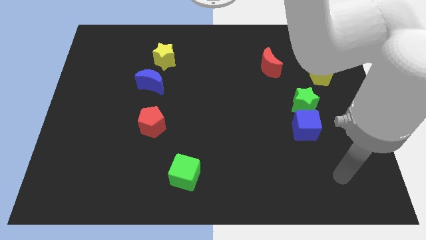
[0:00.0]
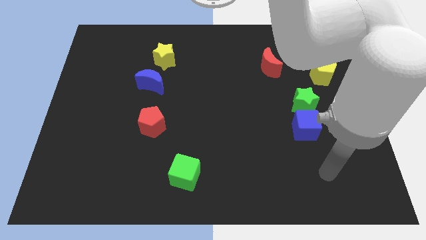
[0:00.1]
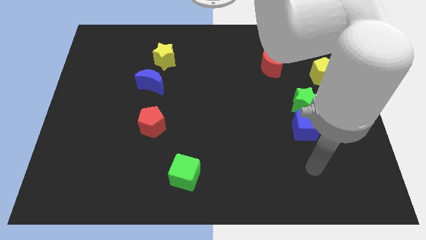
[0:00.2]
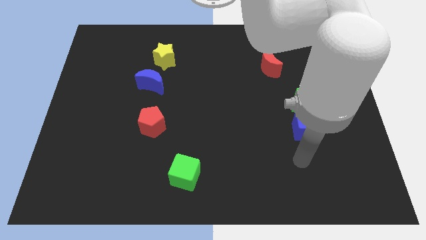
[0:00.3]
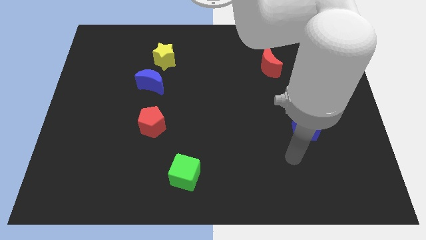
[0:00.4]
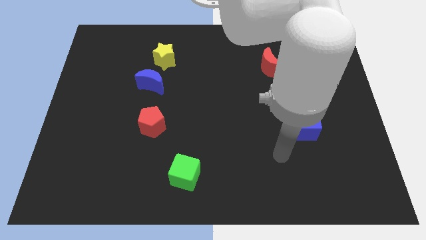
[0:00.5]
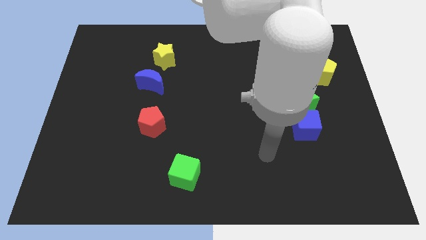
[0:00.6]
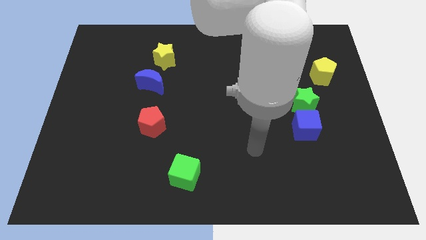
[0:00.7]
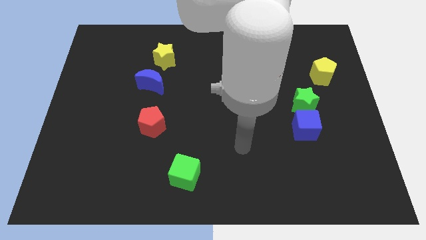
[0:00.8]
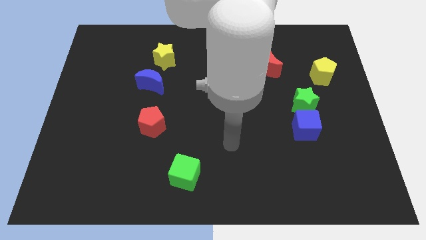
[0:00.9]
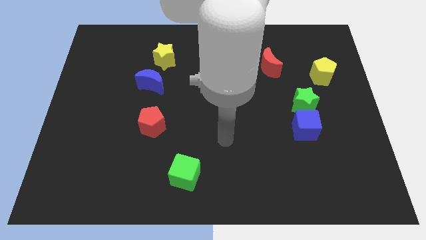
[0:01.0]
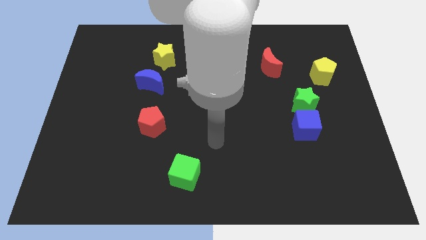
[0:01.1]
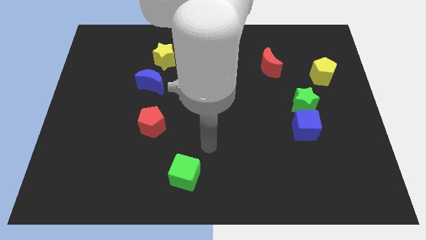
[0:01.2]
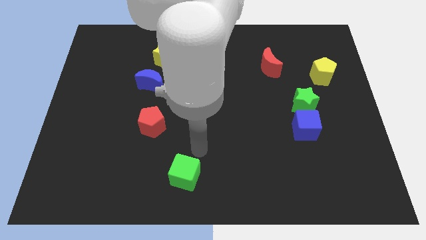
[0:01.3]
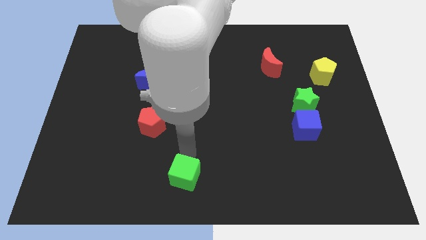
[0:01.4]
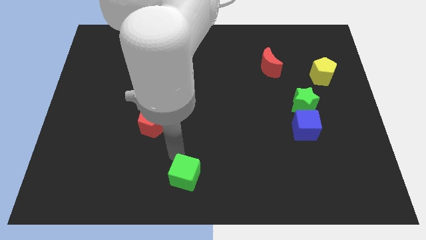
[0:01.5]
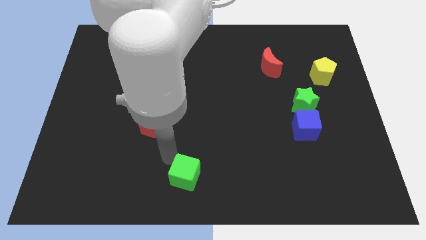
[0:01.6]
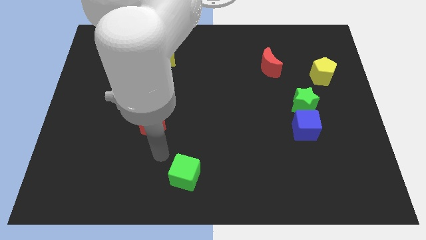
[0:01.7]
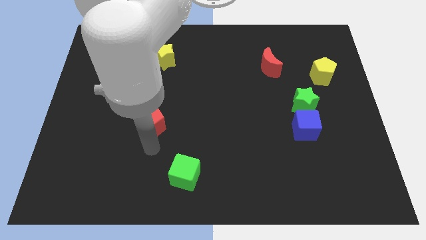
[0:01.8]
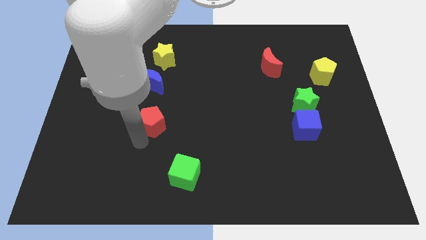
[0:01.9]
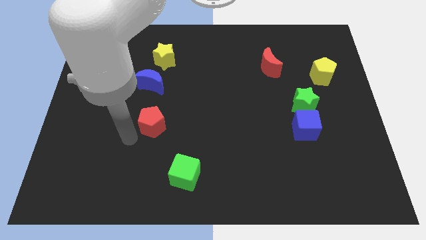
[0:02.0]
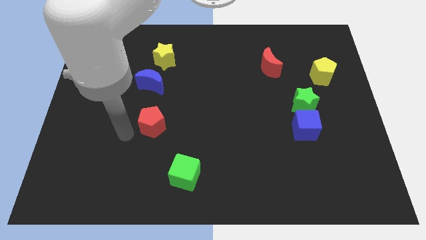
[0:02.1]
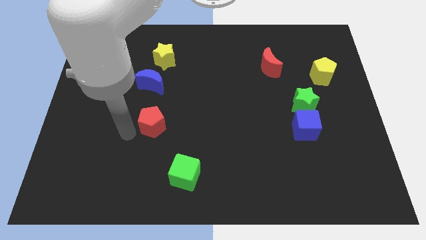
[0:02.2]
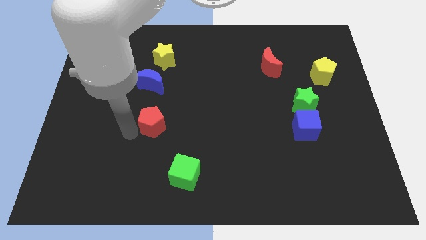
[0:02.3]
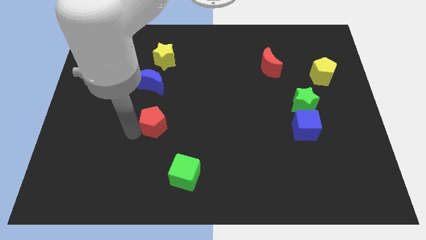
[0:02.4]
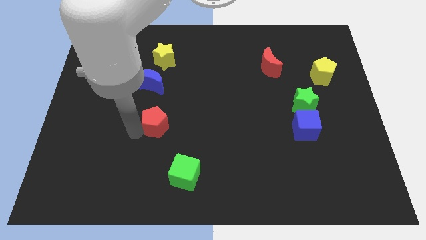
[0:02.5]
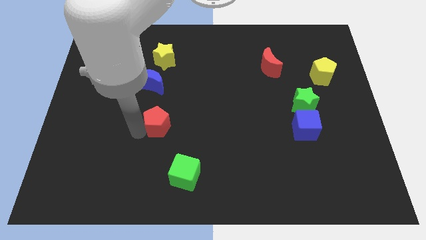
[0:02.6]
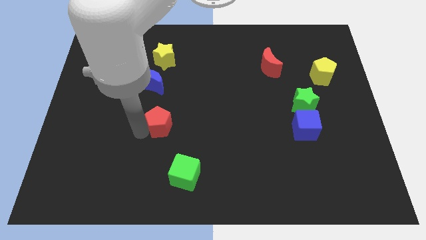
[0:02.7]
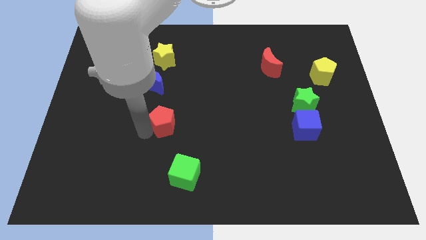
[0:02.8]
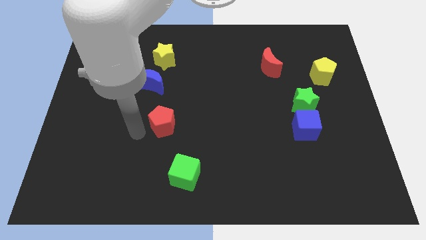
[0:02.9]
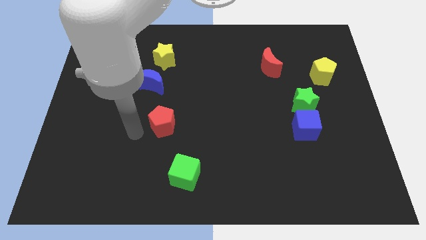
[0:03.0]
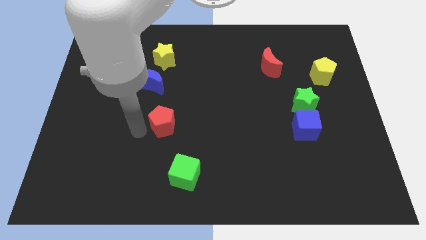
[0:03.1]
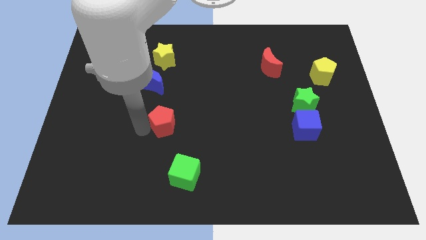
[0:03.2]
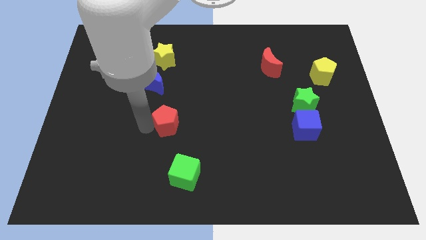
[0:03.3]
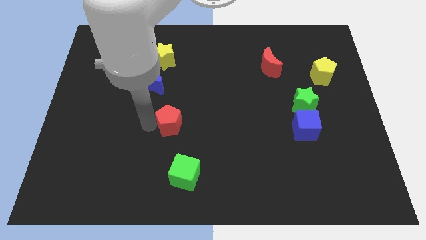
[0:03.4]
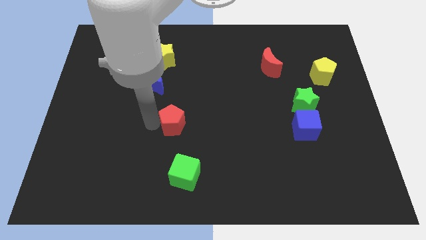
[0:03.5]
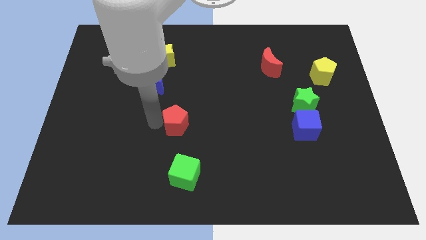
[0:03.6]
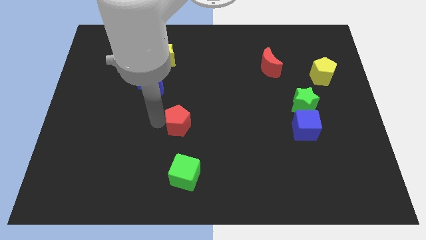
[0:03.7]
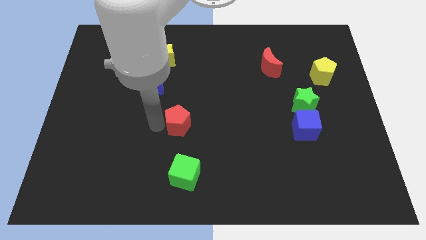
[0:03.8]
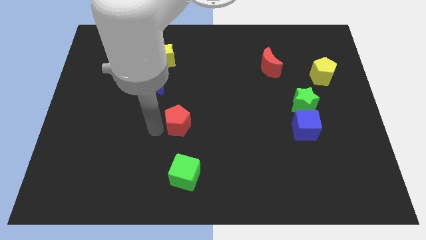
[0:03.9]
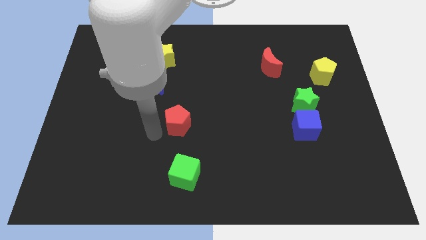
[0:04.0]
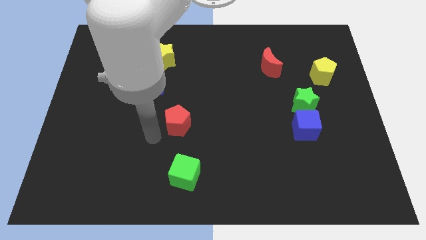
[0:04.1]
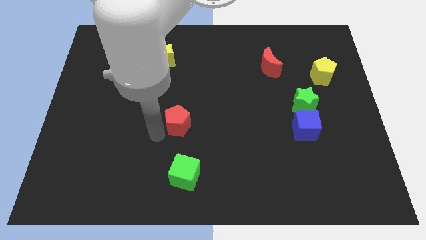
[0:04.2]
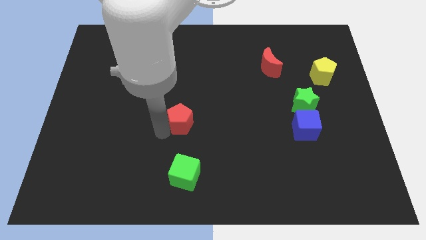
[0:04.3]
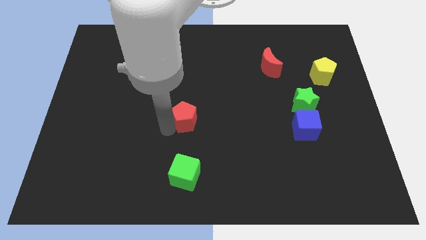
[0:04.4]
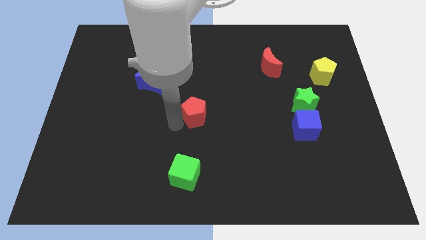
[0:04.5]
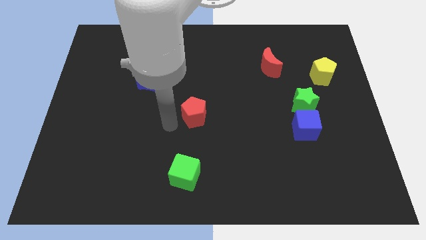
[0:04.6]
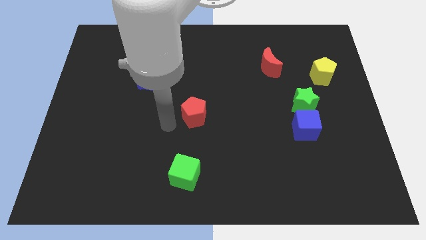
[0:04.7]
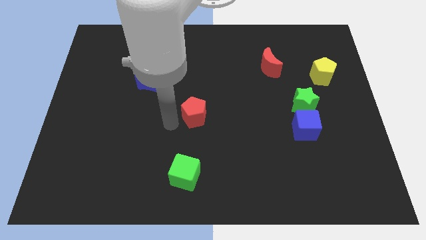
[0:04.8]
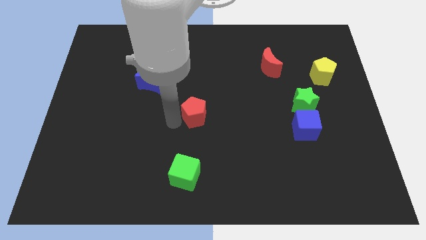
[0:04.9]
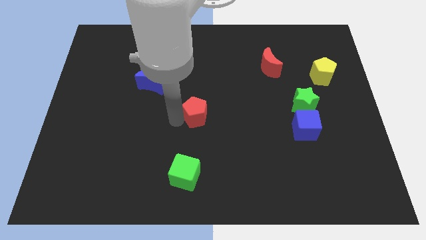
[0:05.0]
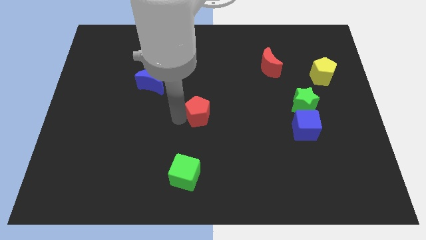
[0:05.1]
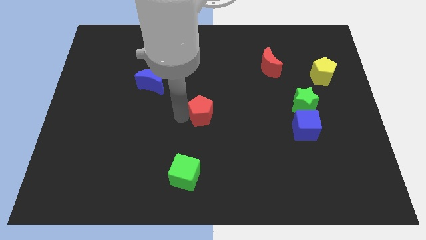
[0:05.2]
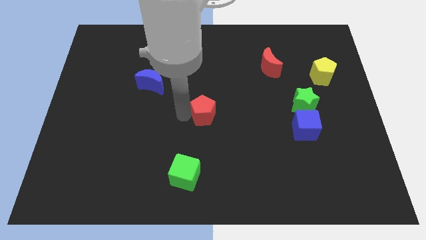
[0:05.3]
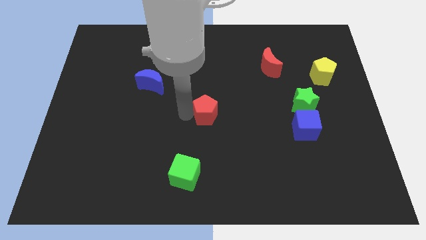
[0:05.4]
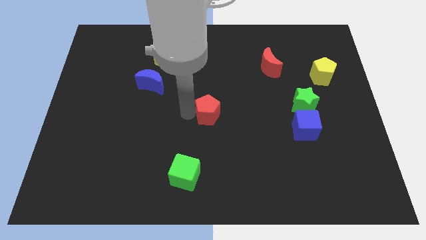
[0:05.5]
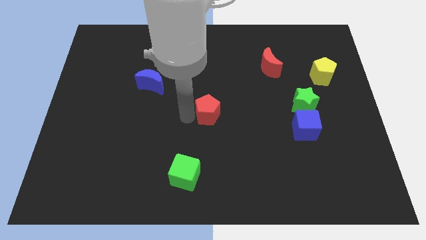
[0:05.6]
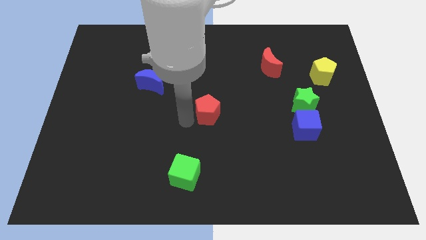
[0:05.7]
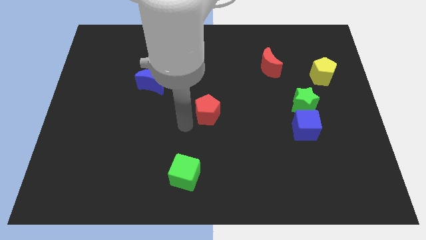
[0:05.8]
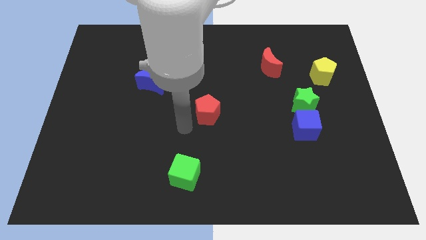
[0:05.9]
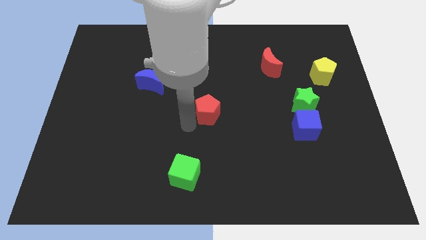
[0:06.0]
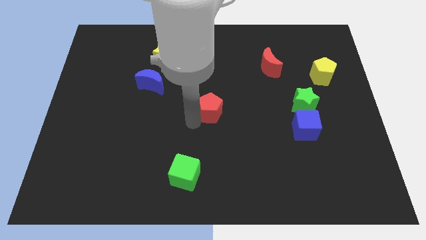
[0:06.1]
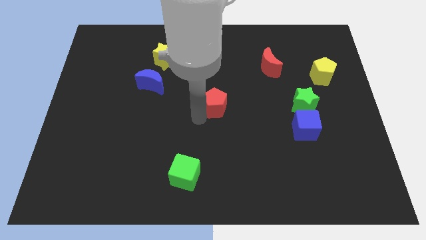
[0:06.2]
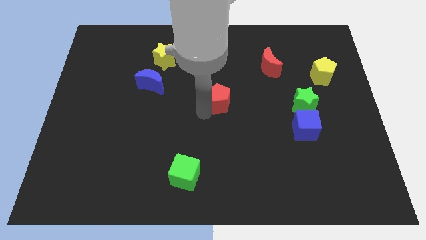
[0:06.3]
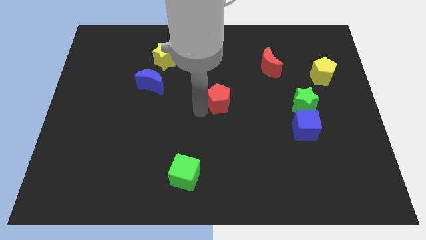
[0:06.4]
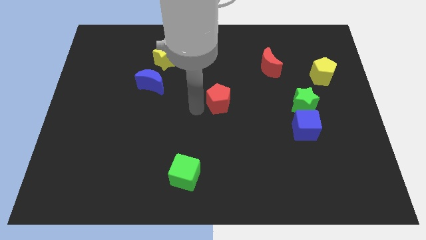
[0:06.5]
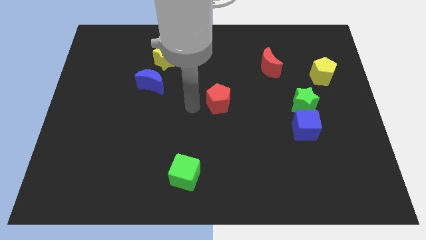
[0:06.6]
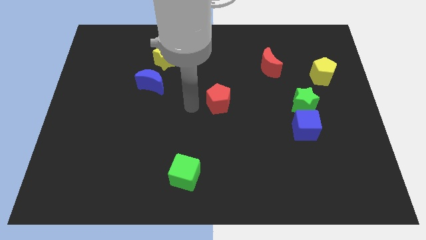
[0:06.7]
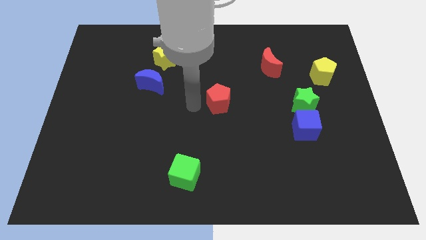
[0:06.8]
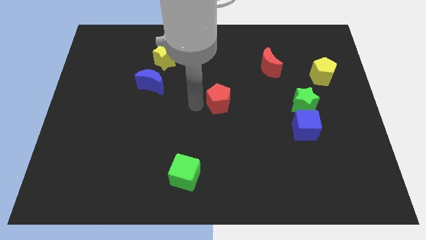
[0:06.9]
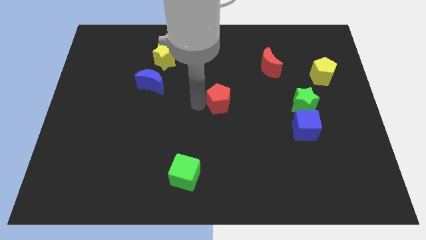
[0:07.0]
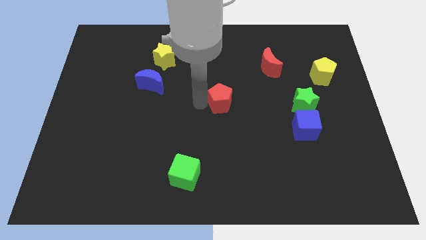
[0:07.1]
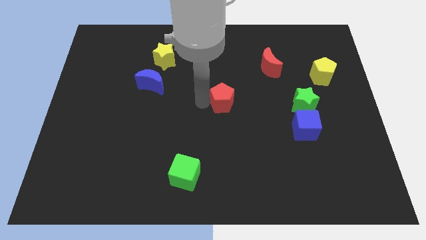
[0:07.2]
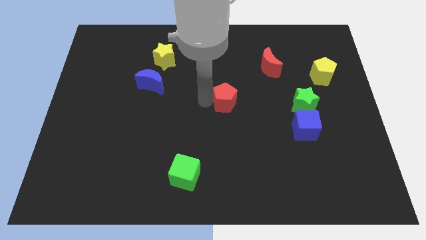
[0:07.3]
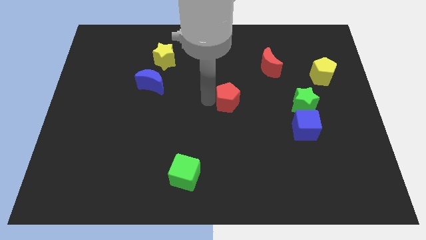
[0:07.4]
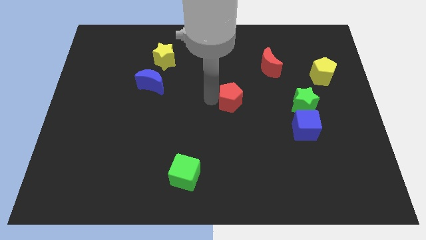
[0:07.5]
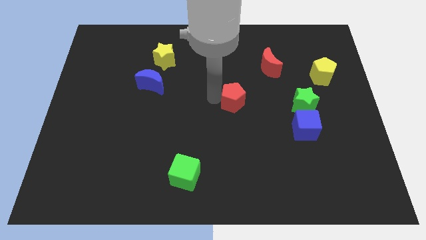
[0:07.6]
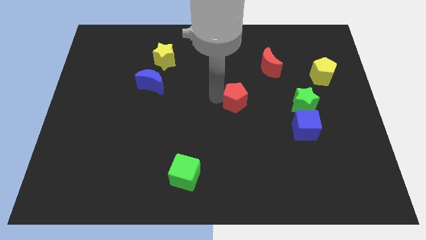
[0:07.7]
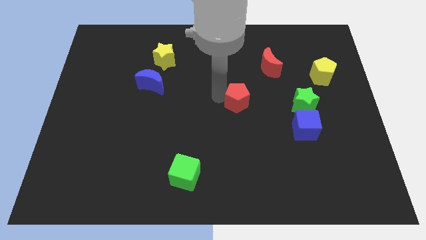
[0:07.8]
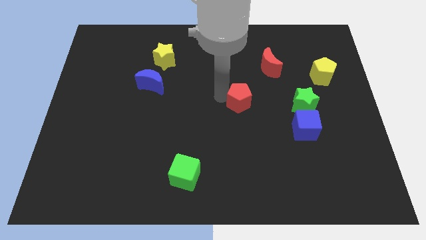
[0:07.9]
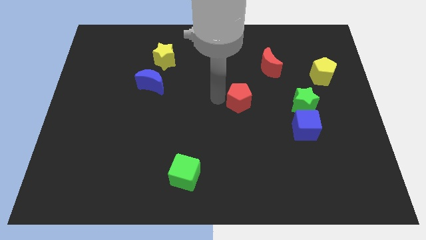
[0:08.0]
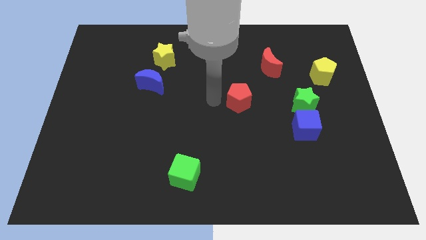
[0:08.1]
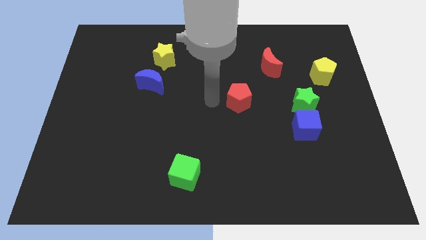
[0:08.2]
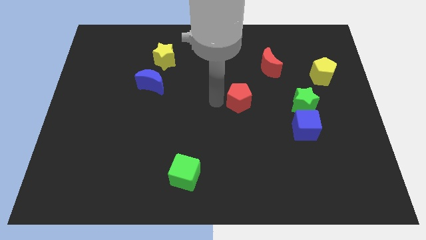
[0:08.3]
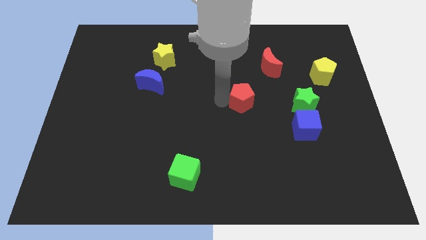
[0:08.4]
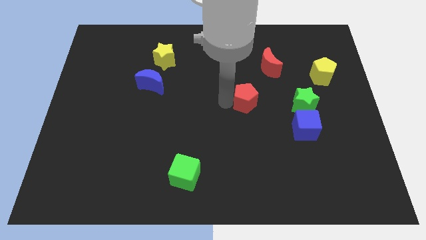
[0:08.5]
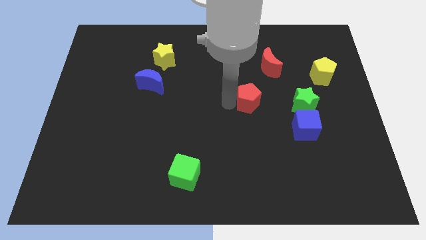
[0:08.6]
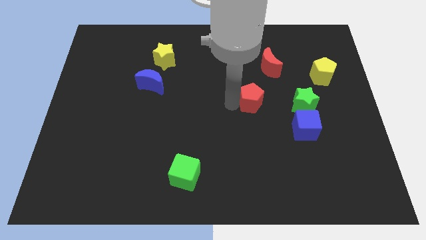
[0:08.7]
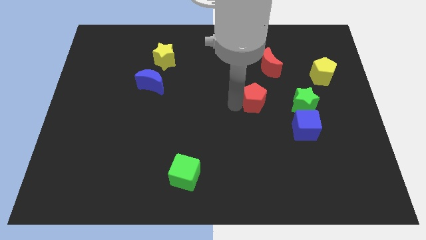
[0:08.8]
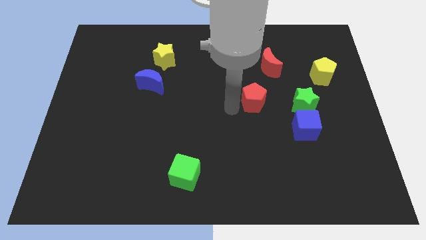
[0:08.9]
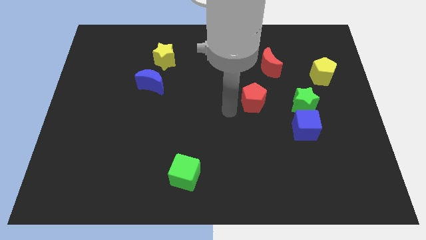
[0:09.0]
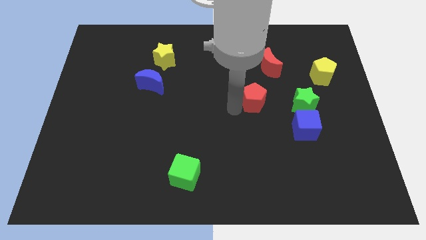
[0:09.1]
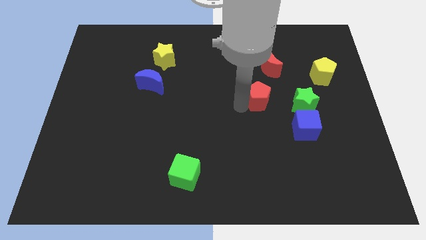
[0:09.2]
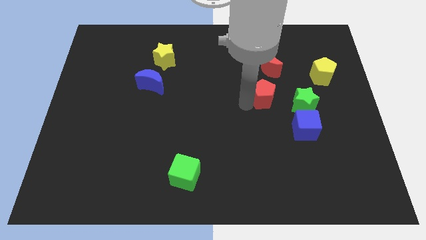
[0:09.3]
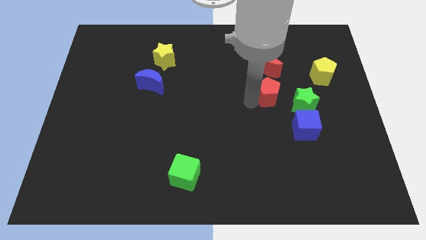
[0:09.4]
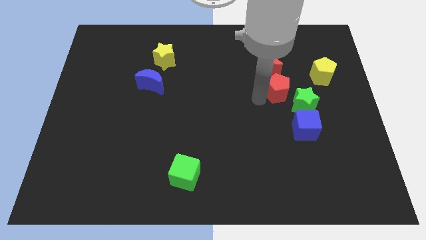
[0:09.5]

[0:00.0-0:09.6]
push the red pentagon diagonally down and to the right of the red moon
